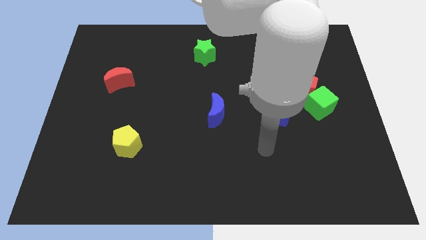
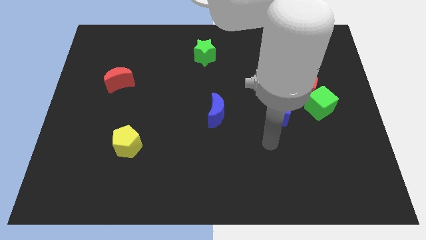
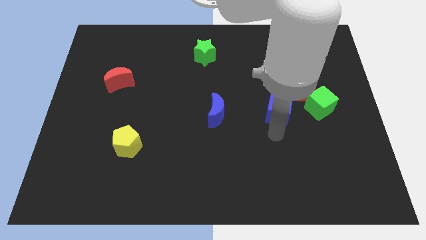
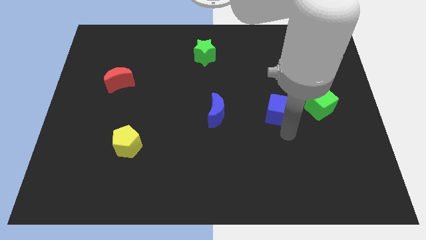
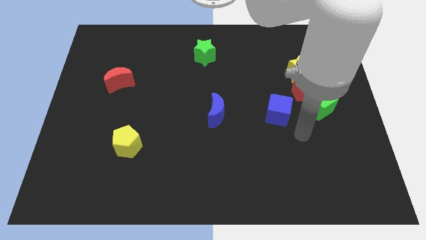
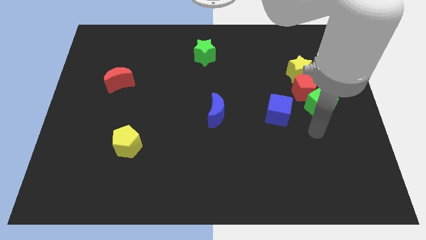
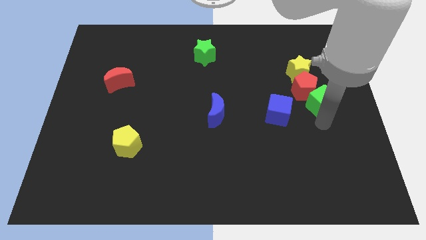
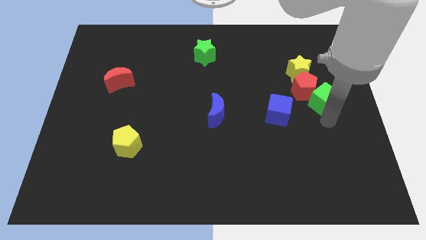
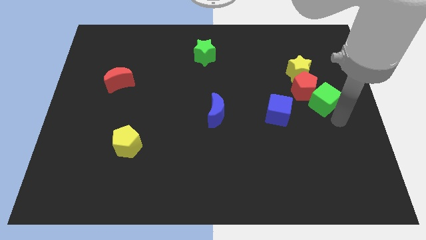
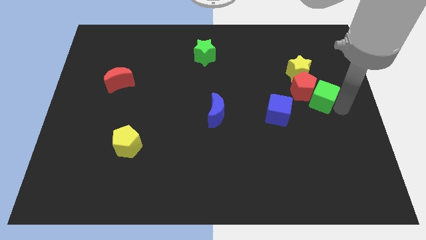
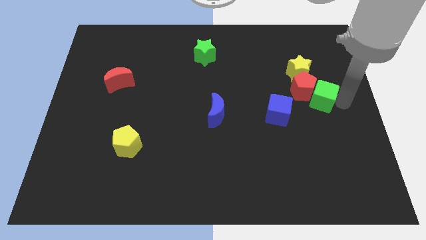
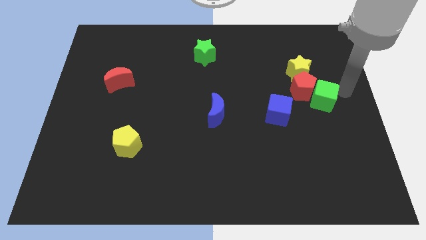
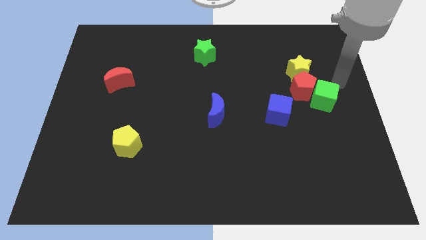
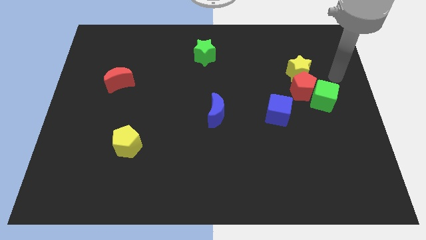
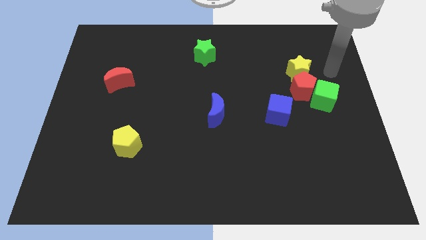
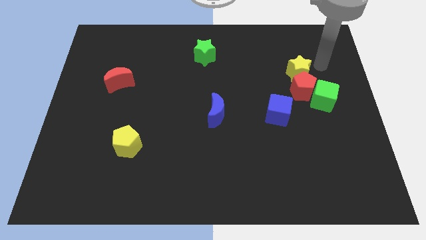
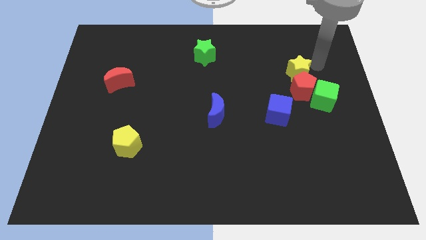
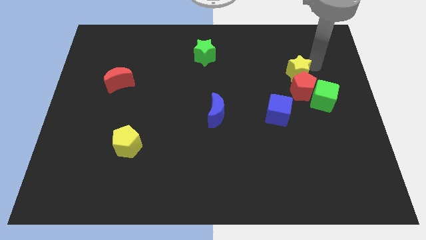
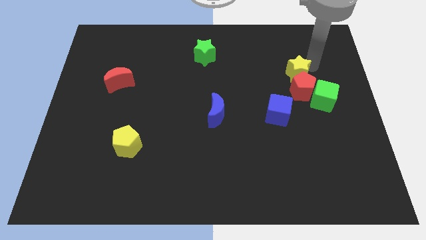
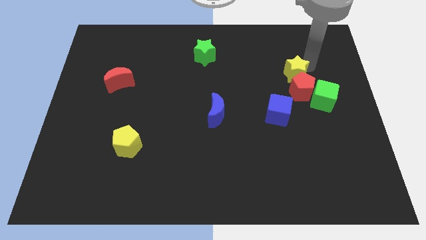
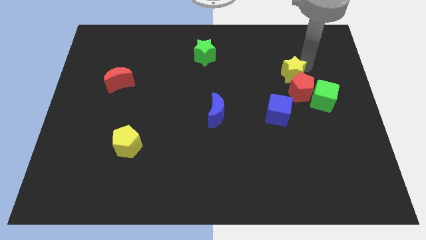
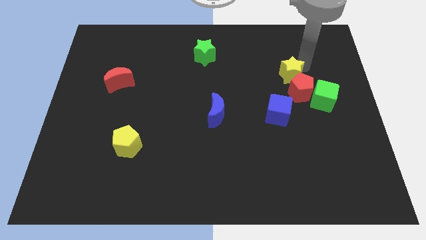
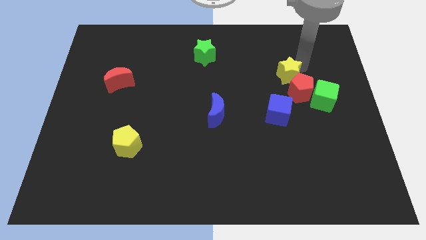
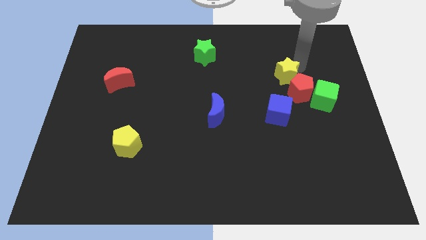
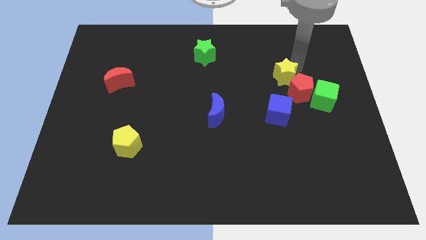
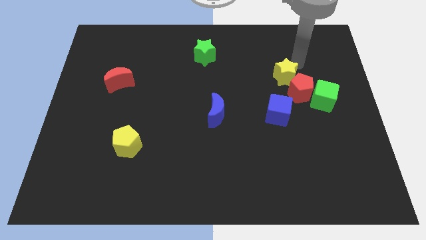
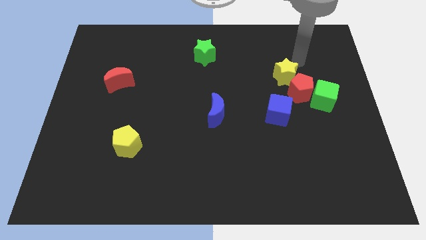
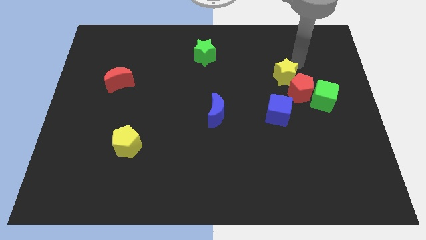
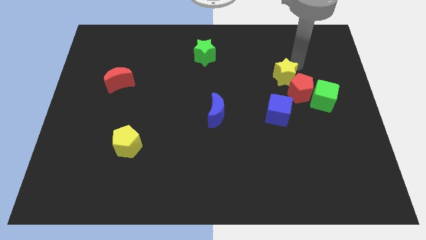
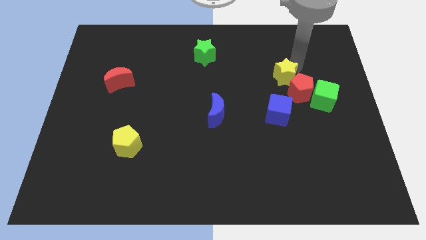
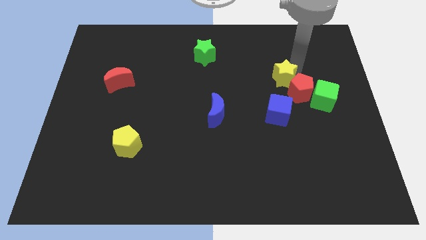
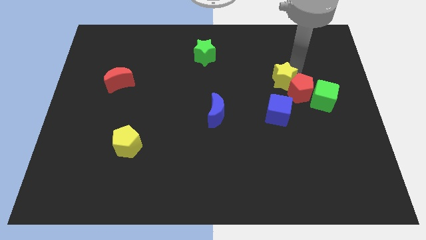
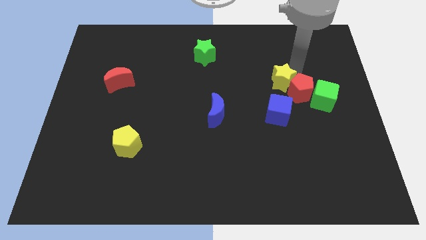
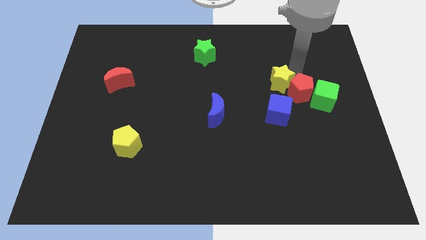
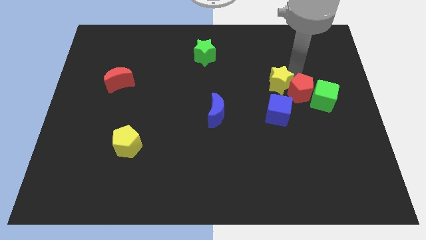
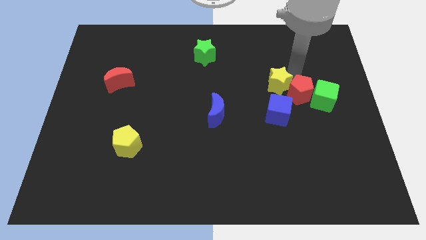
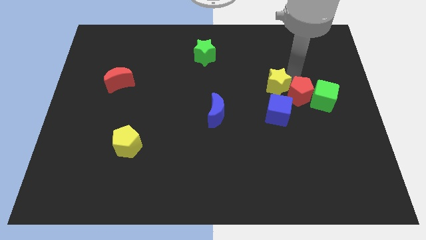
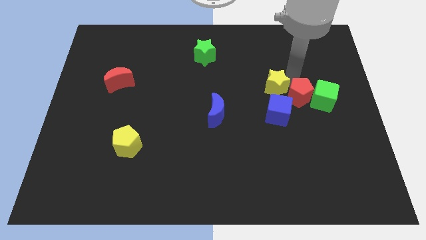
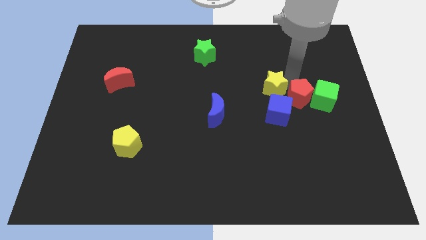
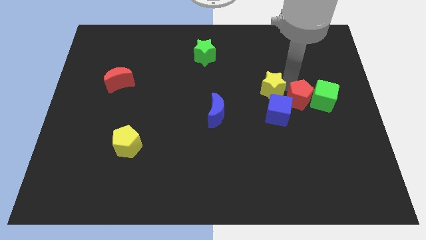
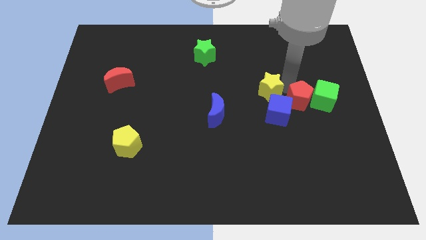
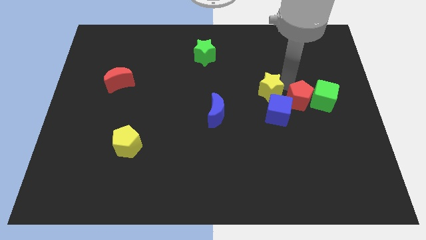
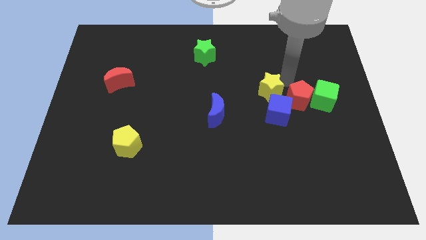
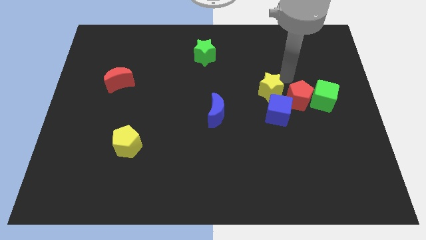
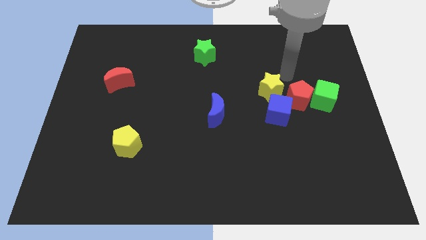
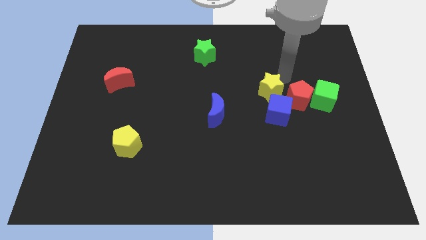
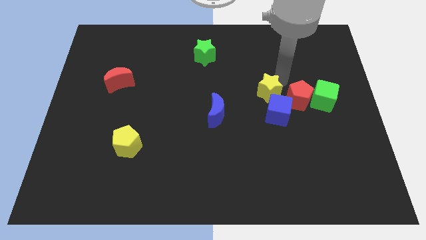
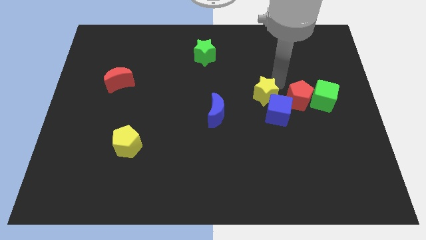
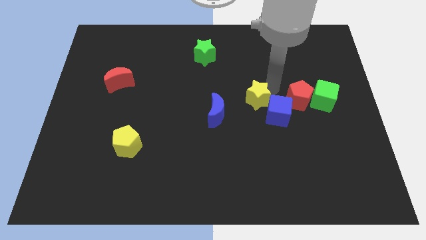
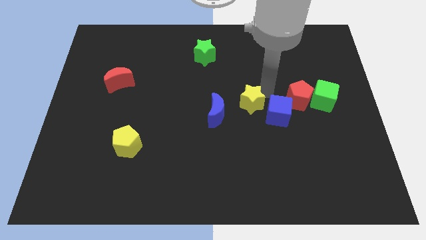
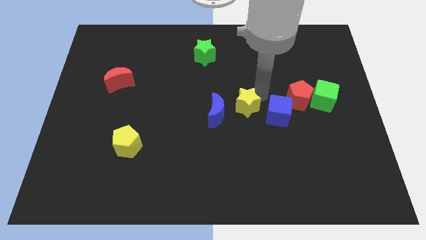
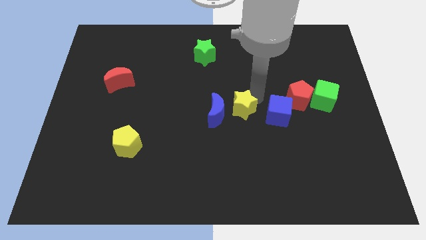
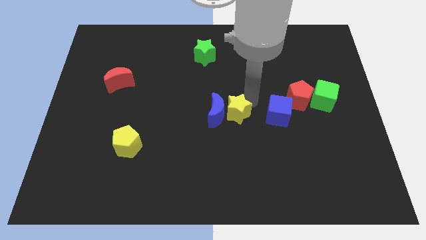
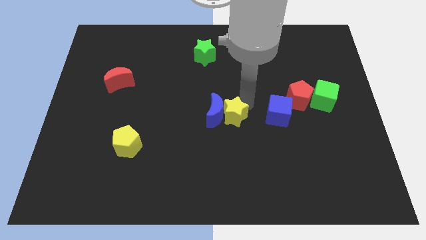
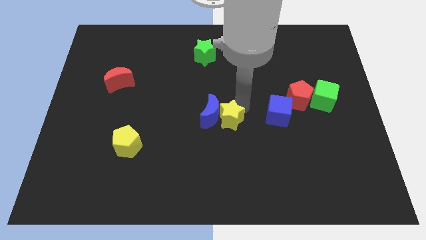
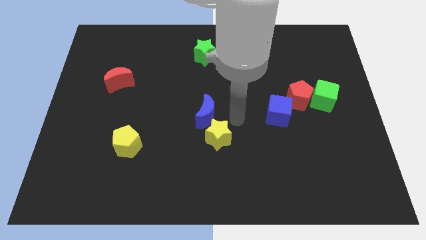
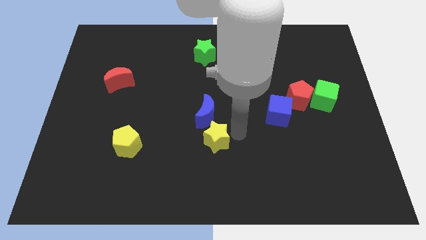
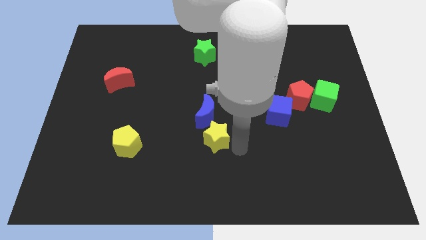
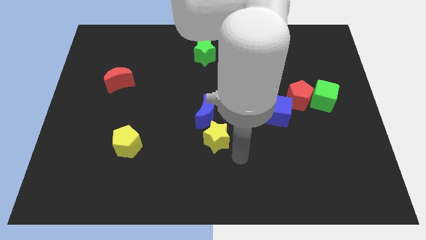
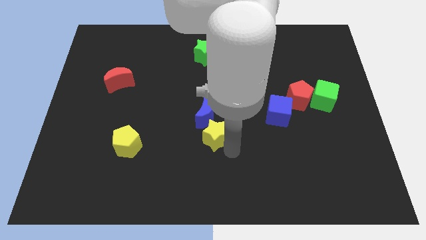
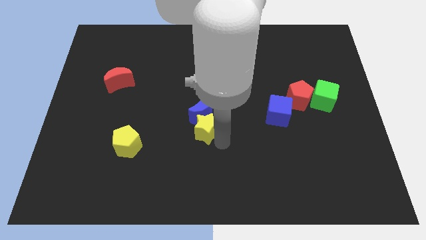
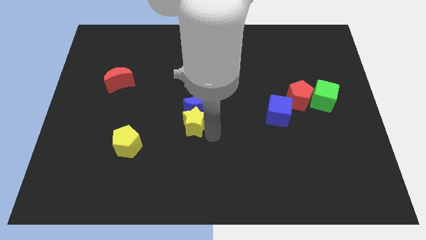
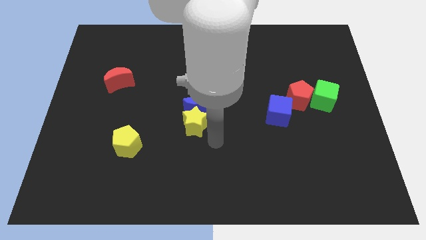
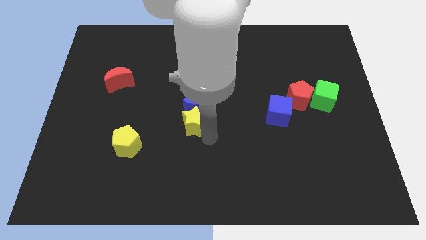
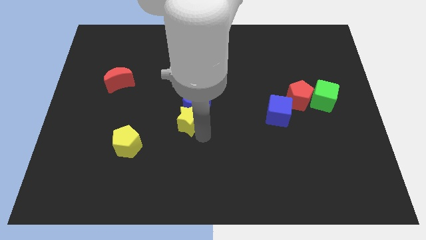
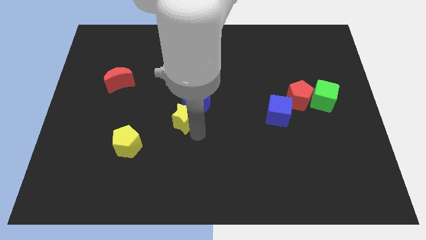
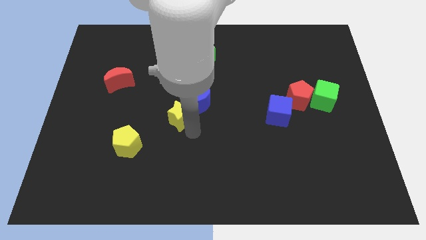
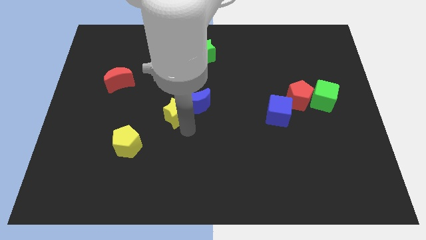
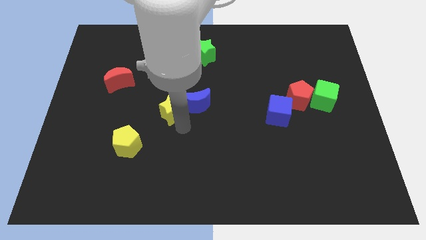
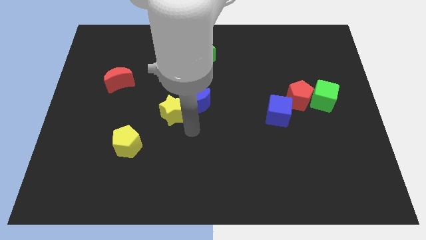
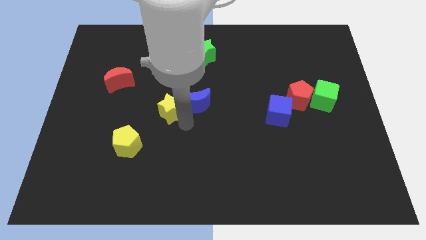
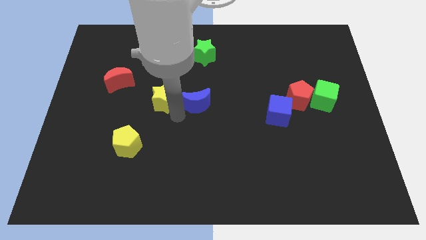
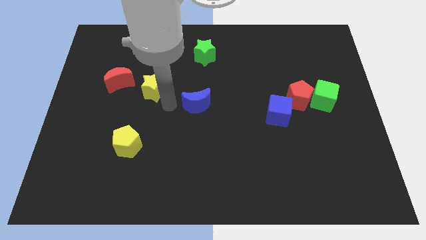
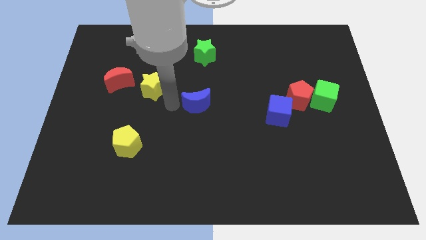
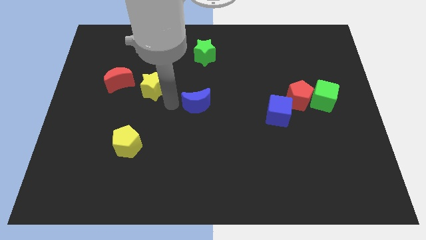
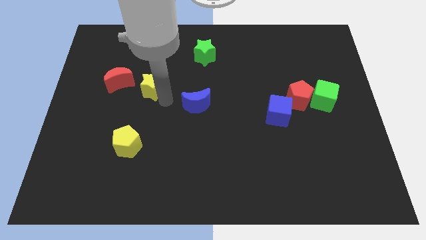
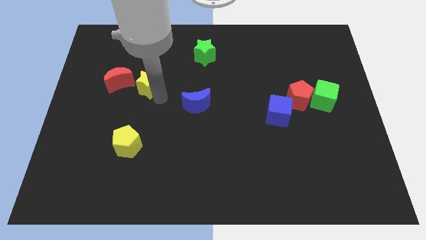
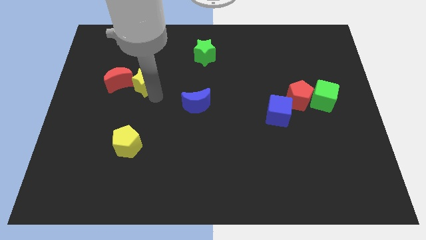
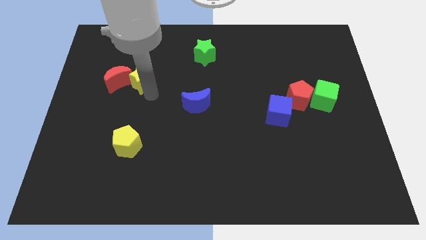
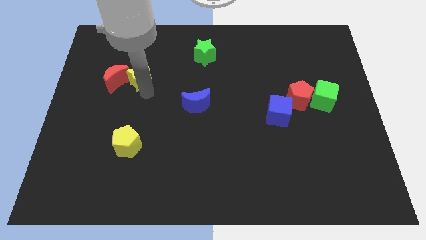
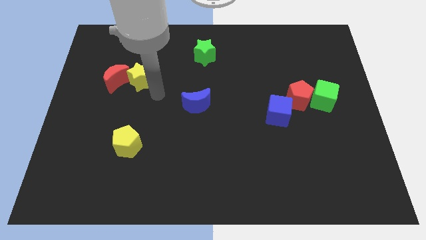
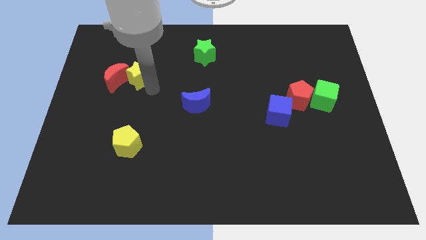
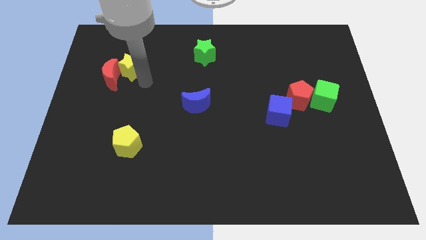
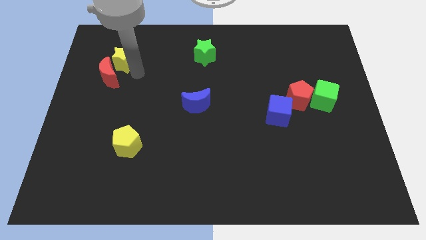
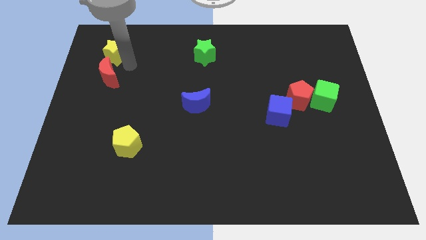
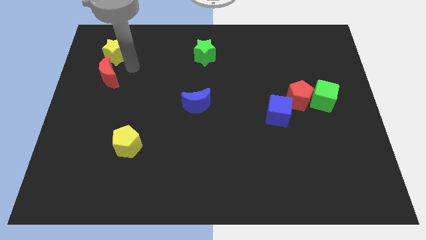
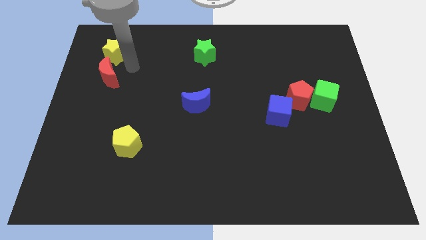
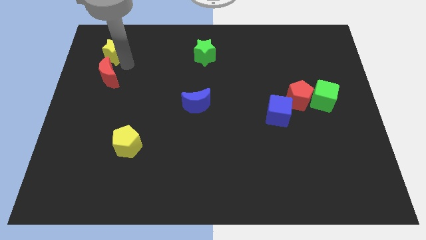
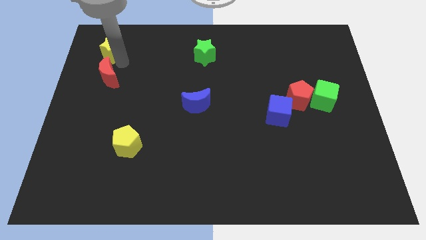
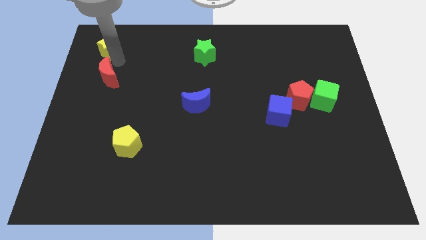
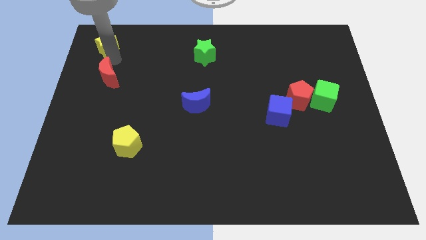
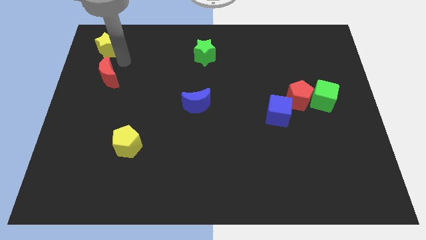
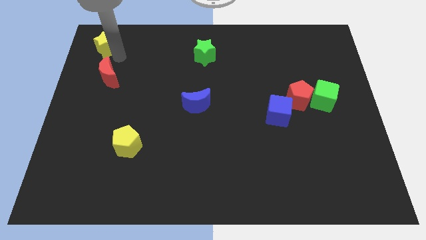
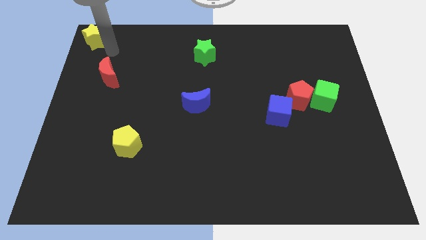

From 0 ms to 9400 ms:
move the yellow star to the upper left corner
